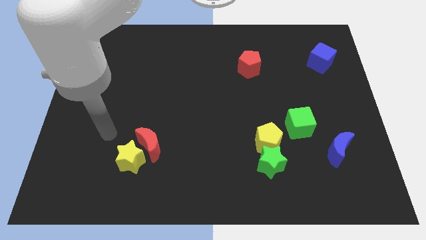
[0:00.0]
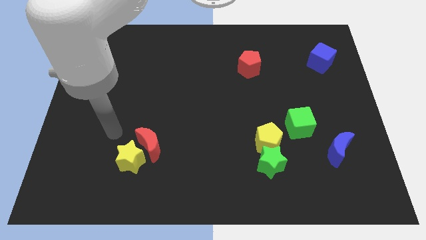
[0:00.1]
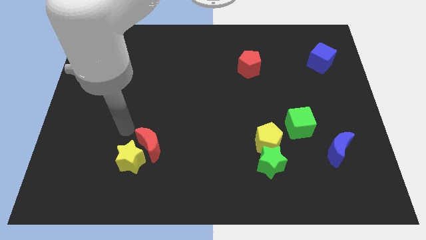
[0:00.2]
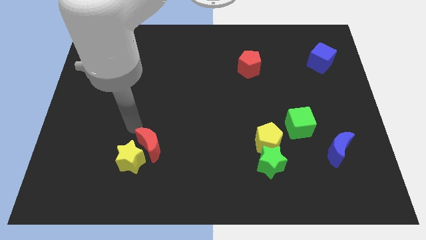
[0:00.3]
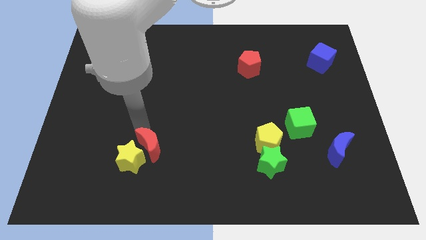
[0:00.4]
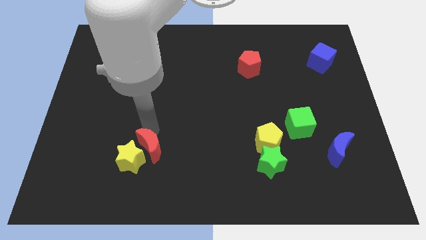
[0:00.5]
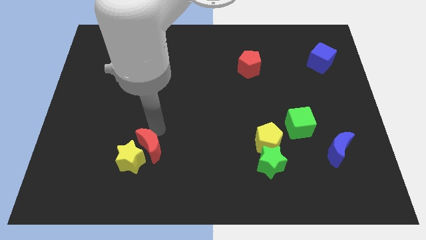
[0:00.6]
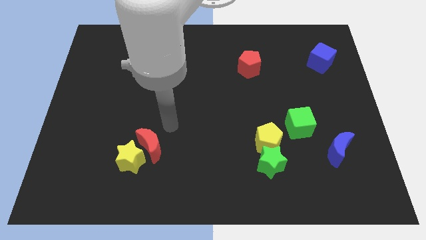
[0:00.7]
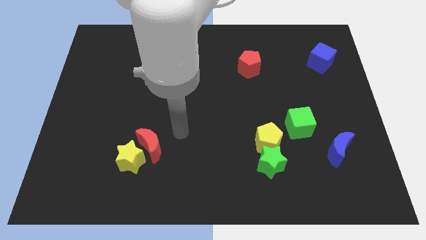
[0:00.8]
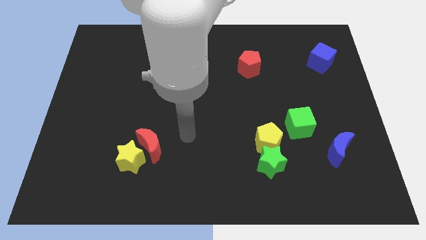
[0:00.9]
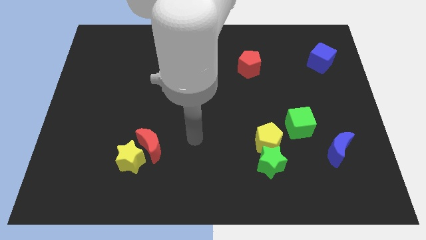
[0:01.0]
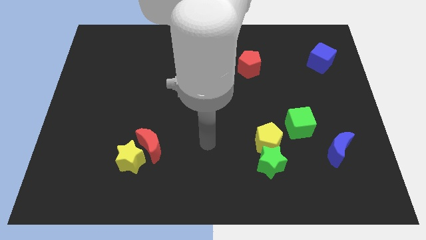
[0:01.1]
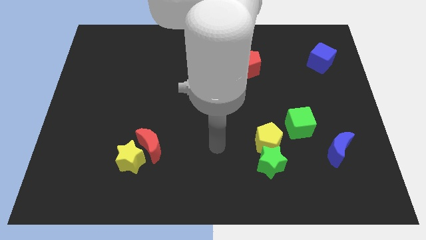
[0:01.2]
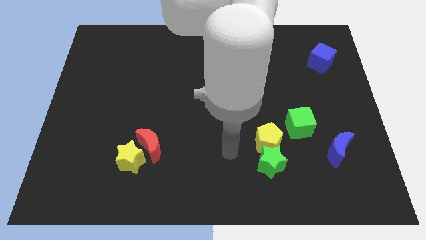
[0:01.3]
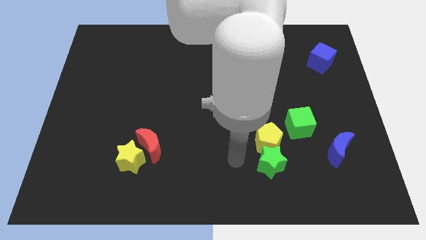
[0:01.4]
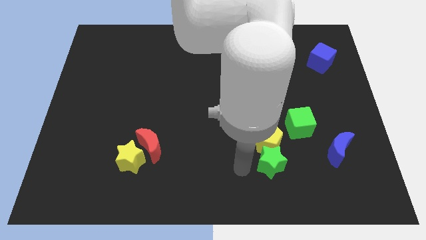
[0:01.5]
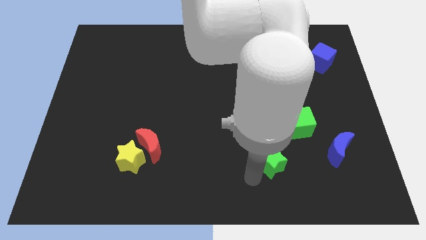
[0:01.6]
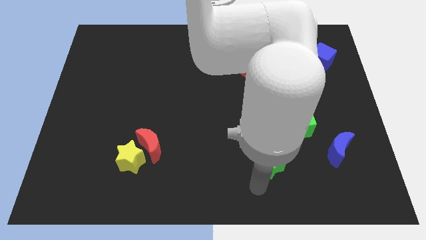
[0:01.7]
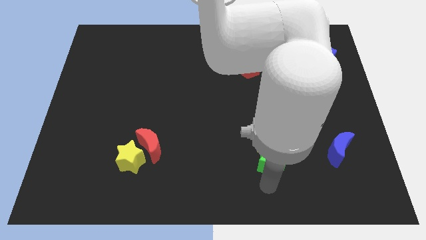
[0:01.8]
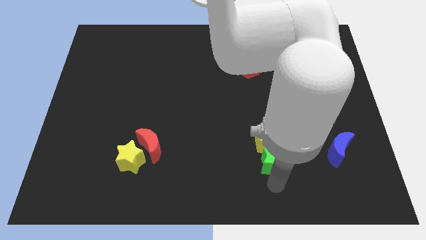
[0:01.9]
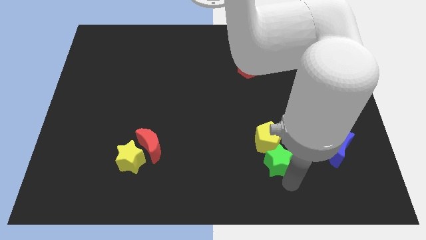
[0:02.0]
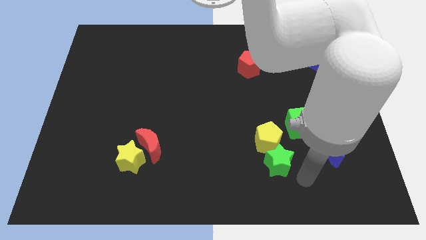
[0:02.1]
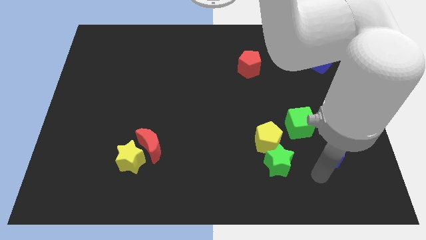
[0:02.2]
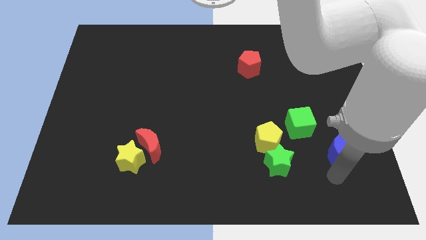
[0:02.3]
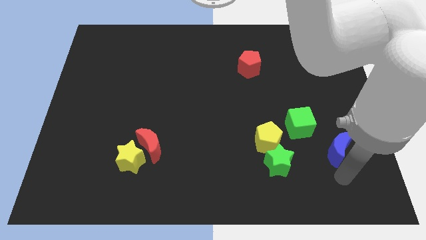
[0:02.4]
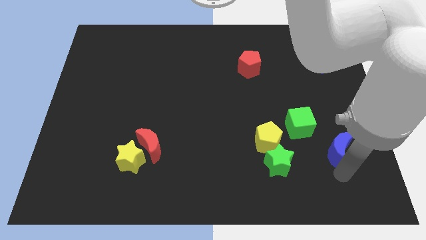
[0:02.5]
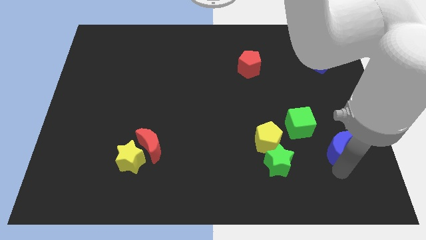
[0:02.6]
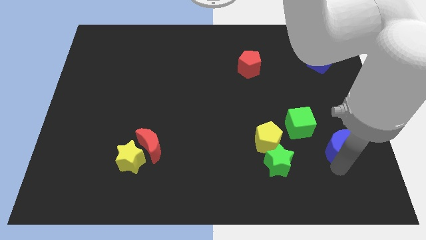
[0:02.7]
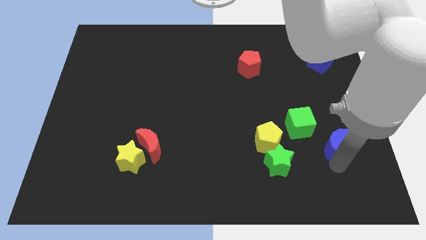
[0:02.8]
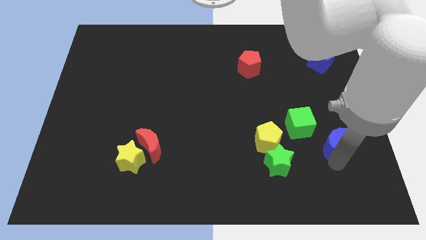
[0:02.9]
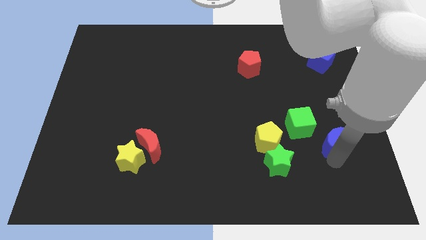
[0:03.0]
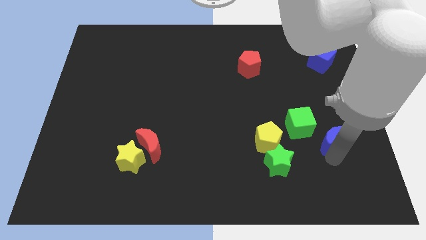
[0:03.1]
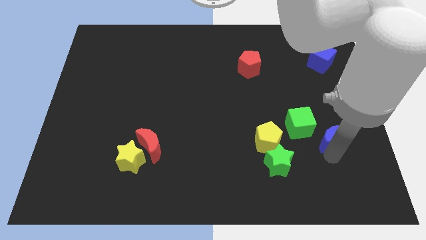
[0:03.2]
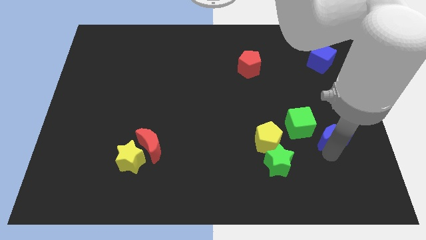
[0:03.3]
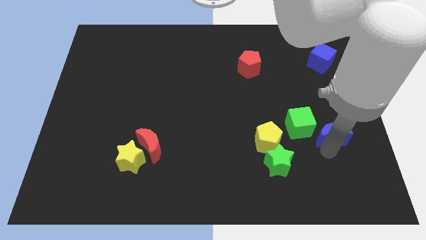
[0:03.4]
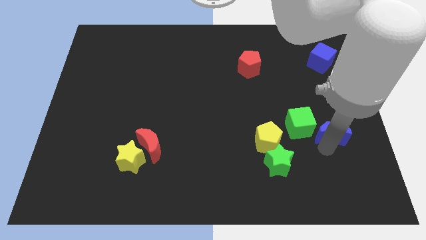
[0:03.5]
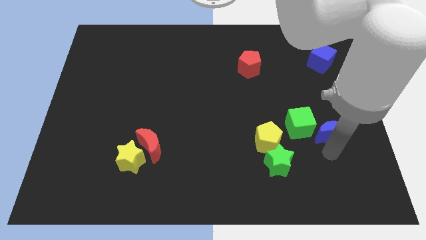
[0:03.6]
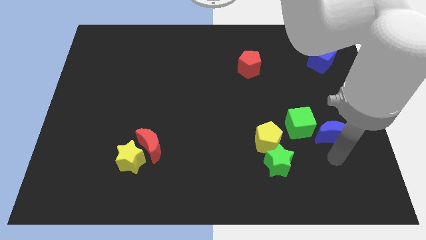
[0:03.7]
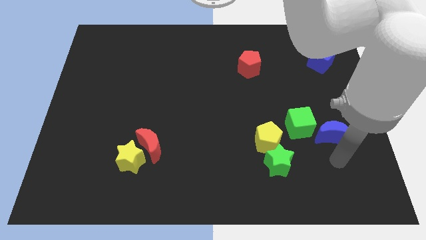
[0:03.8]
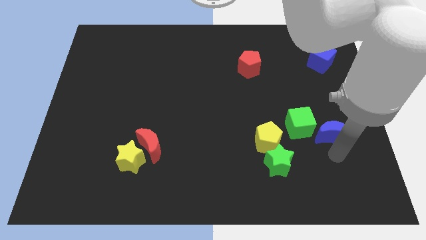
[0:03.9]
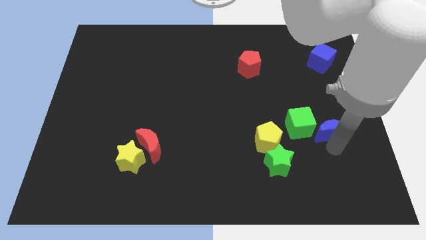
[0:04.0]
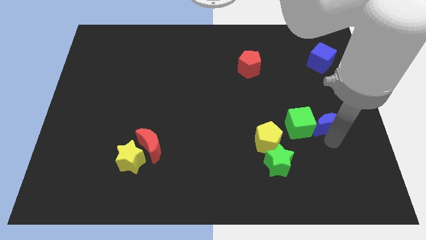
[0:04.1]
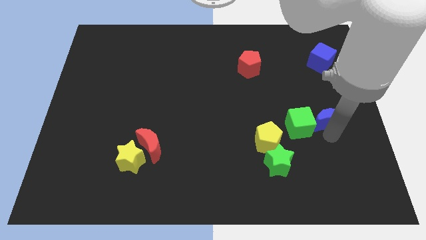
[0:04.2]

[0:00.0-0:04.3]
move the blue moon a bit upwards

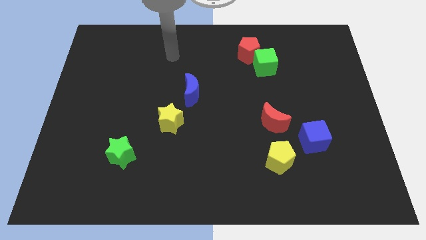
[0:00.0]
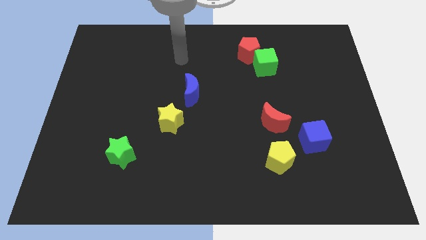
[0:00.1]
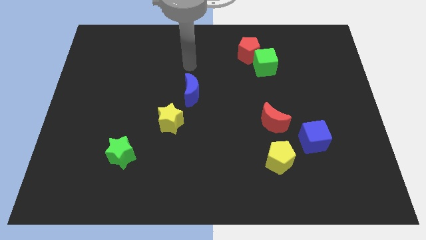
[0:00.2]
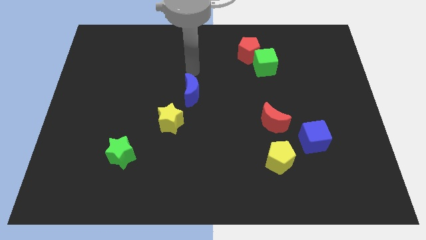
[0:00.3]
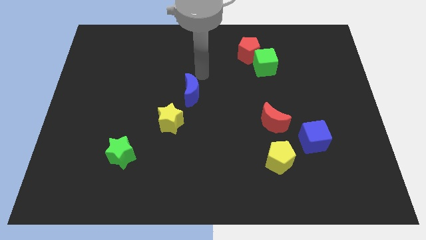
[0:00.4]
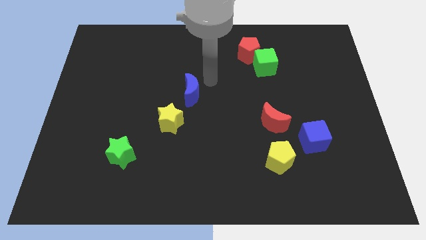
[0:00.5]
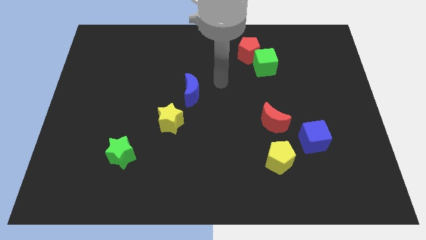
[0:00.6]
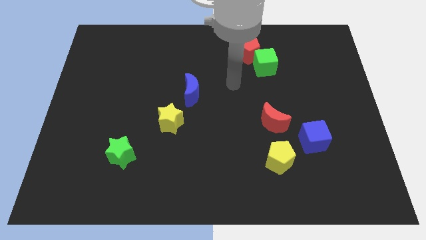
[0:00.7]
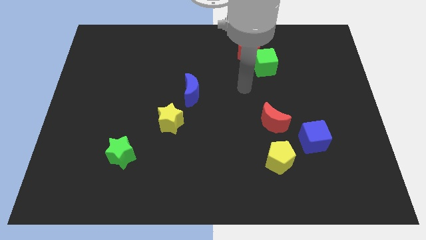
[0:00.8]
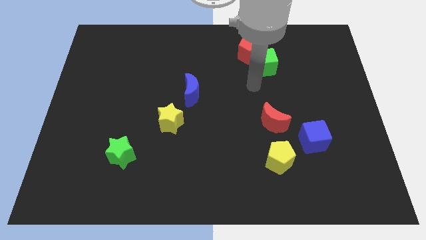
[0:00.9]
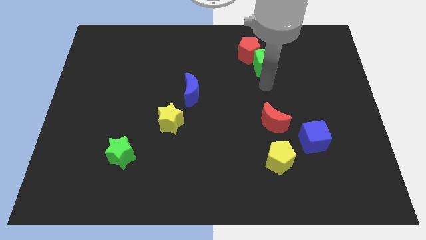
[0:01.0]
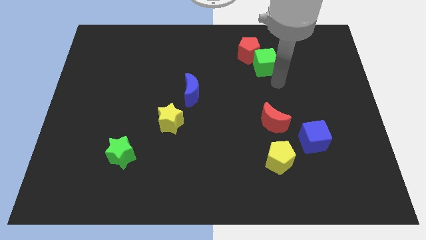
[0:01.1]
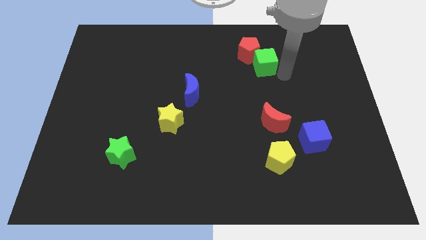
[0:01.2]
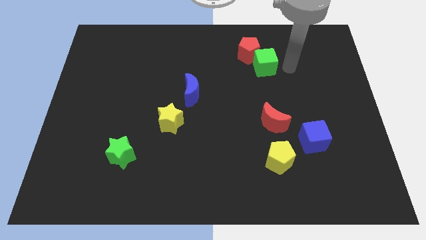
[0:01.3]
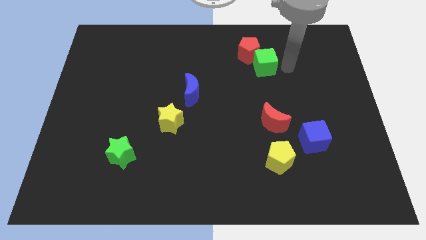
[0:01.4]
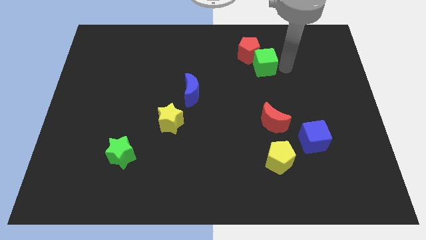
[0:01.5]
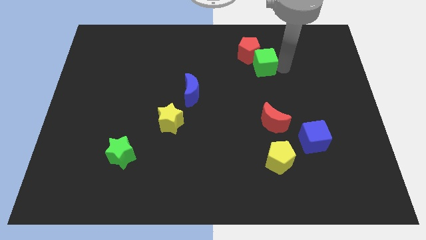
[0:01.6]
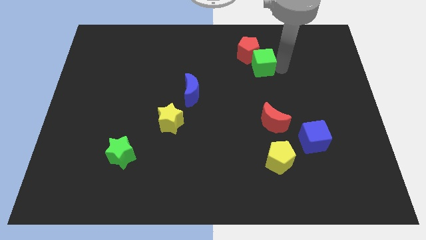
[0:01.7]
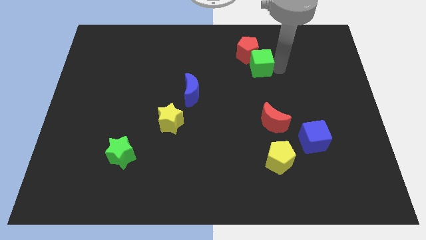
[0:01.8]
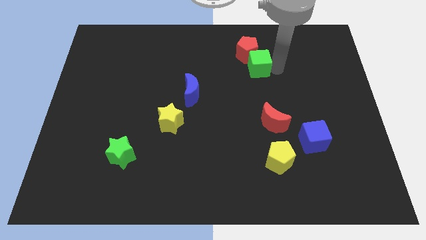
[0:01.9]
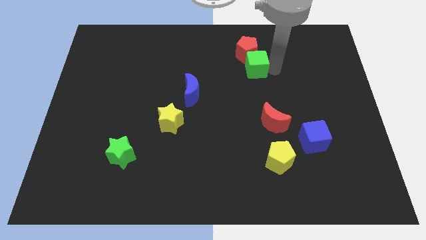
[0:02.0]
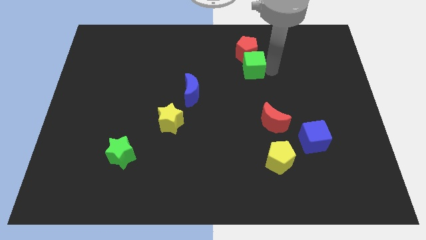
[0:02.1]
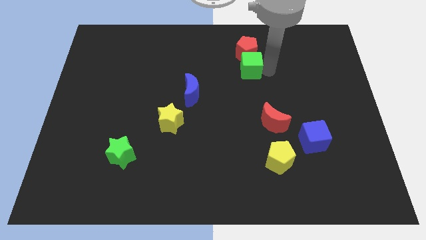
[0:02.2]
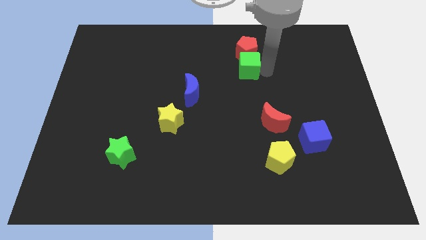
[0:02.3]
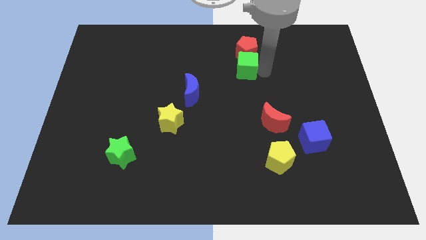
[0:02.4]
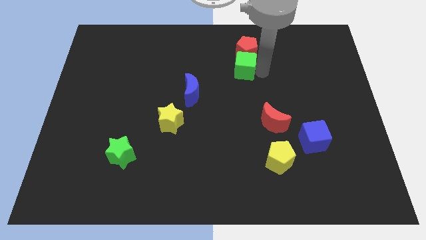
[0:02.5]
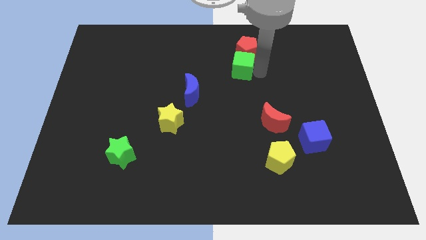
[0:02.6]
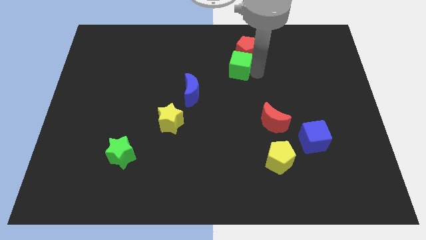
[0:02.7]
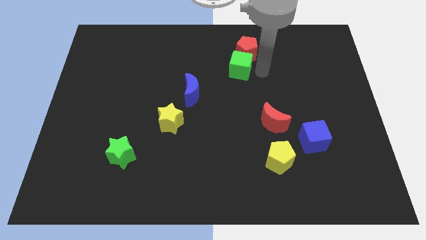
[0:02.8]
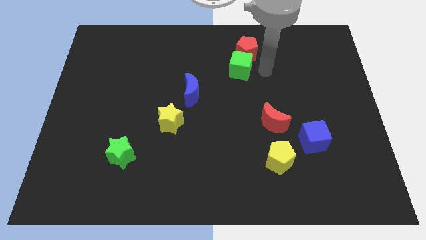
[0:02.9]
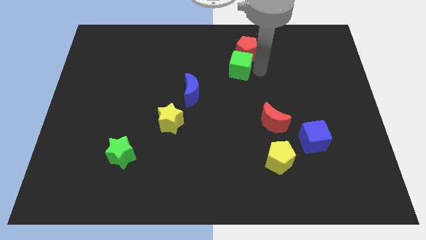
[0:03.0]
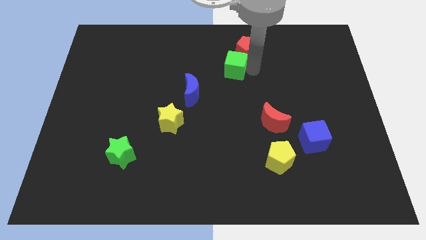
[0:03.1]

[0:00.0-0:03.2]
slightly move the green cube left

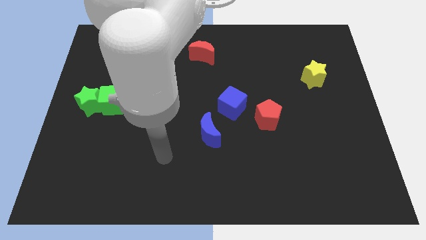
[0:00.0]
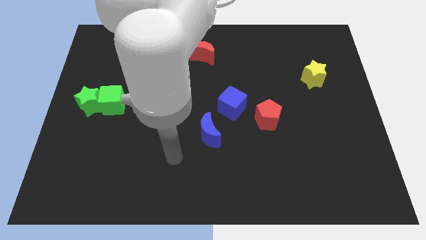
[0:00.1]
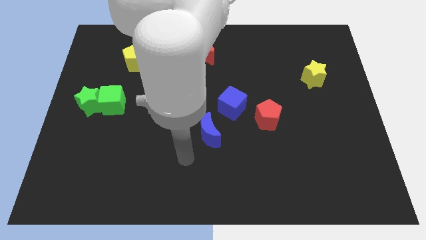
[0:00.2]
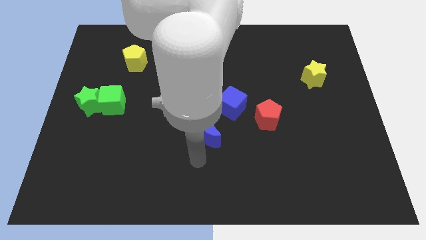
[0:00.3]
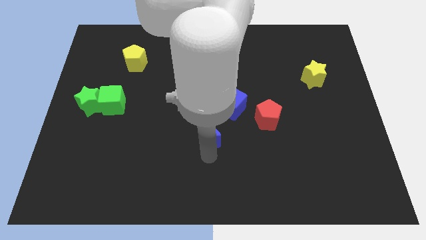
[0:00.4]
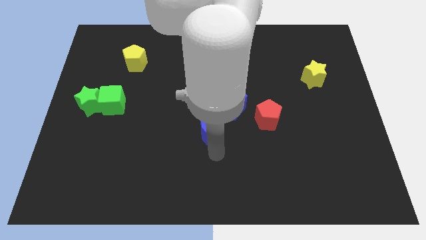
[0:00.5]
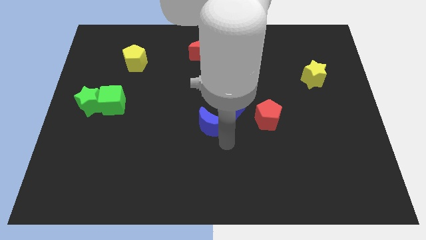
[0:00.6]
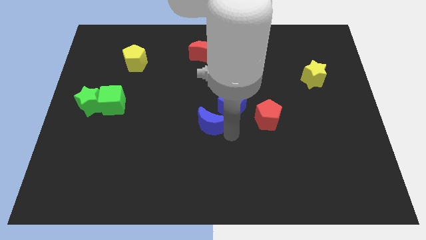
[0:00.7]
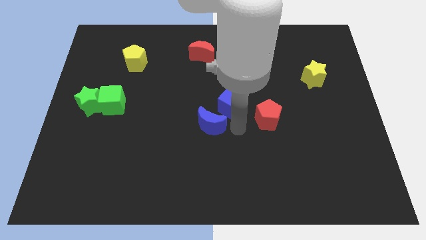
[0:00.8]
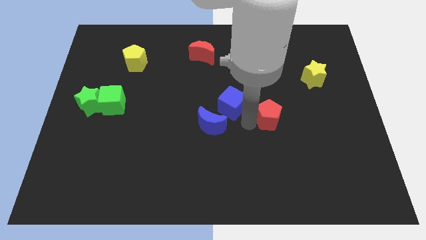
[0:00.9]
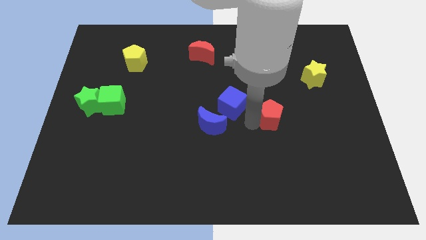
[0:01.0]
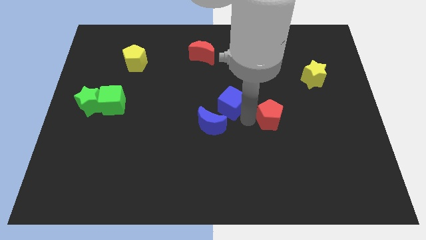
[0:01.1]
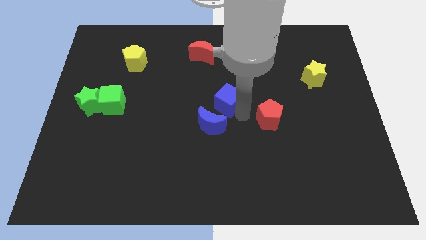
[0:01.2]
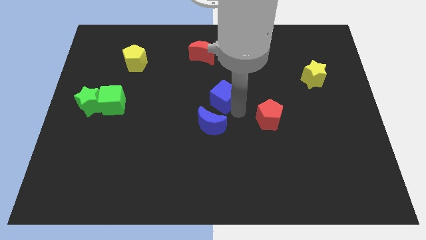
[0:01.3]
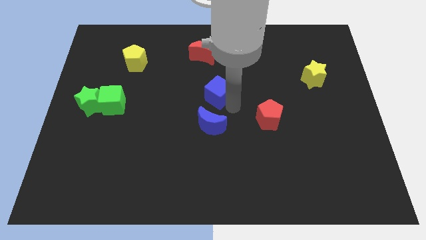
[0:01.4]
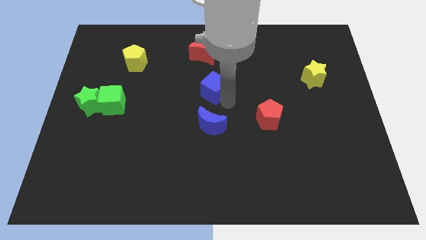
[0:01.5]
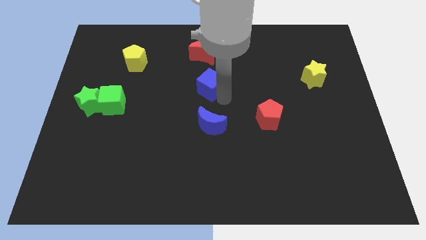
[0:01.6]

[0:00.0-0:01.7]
move the blue cube a bit up and to the left diagonally
